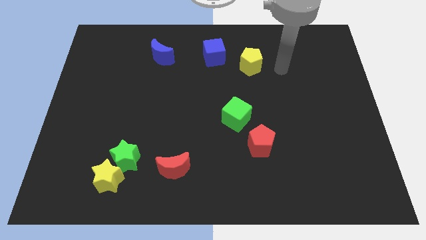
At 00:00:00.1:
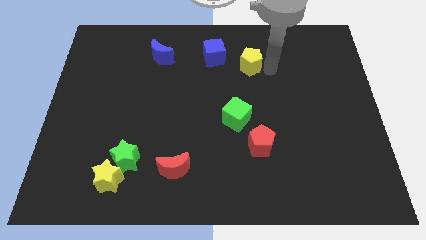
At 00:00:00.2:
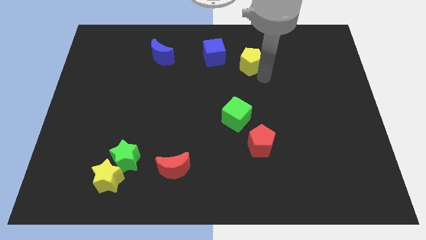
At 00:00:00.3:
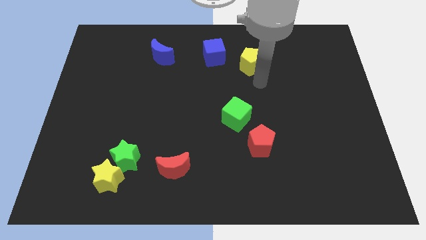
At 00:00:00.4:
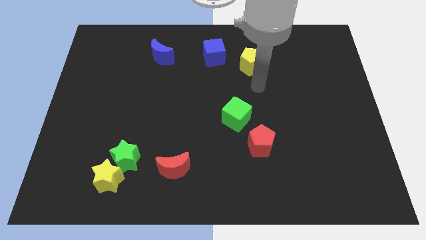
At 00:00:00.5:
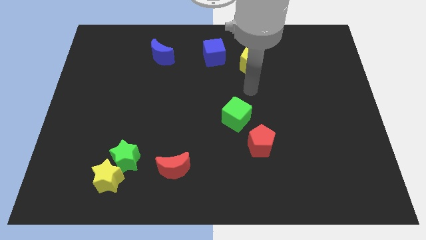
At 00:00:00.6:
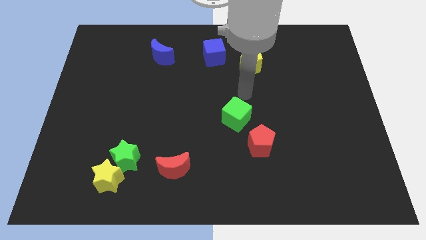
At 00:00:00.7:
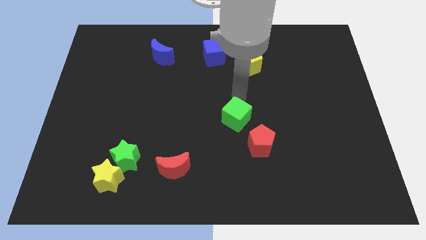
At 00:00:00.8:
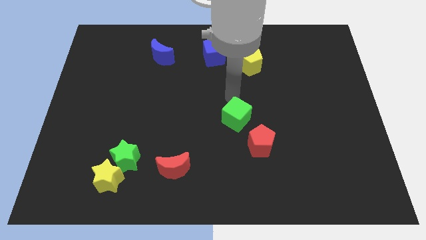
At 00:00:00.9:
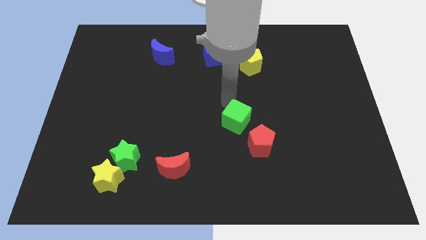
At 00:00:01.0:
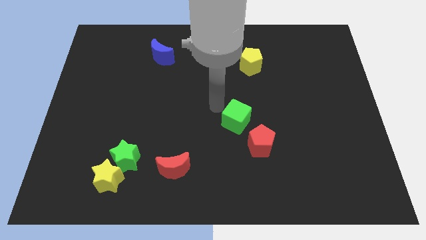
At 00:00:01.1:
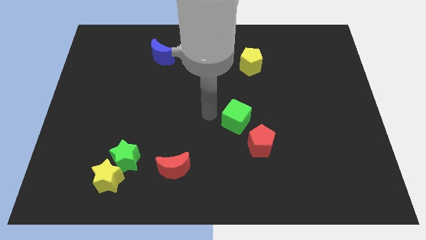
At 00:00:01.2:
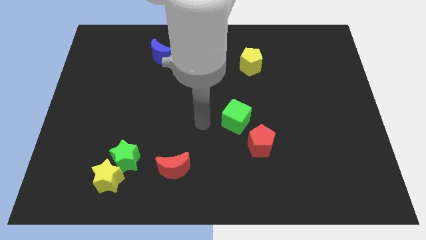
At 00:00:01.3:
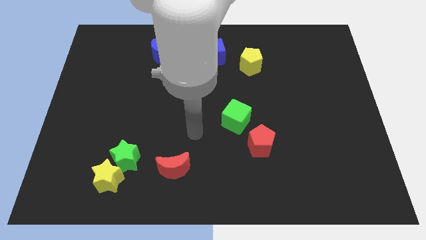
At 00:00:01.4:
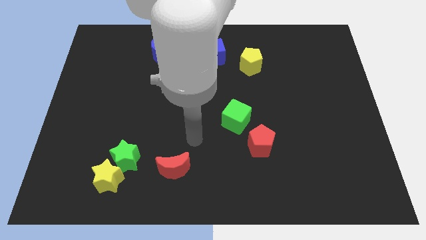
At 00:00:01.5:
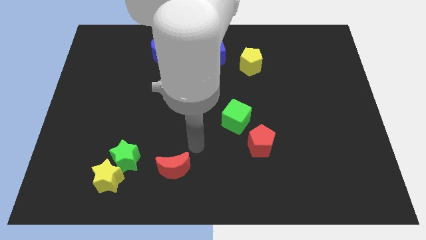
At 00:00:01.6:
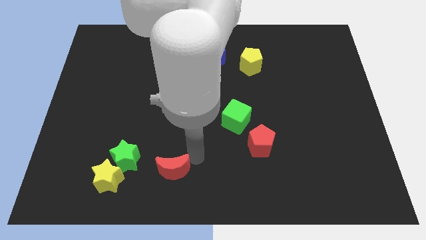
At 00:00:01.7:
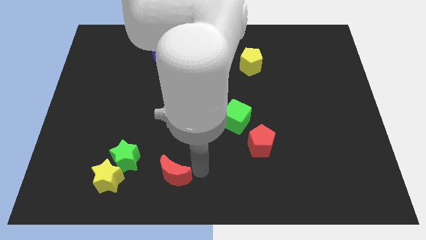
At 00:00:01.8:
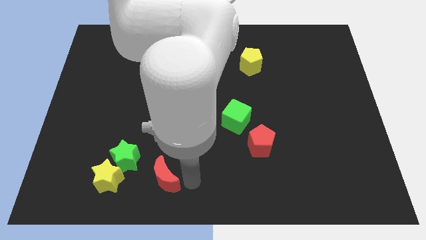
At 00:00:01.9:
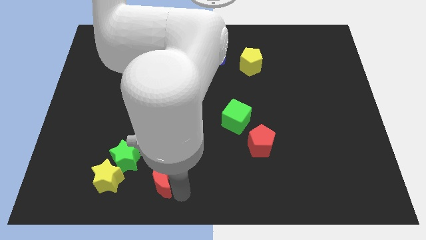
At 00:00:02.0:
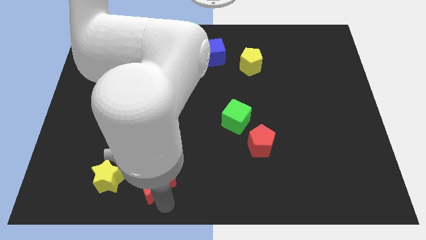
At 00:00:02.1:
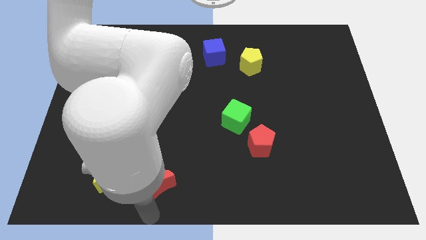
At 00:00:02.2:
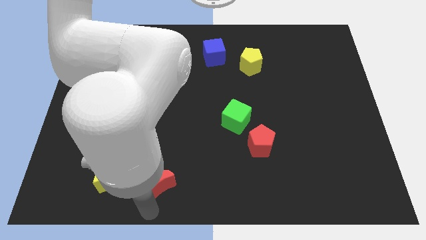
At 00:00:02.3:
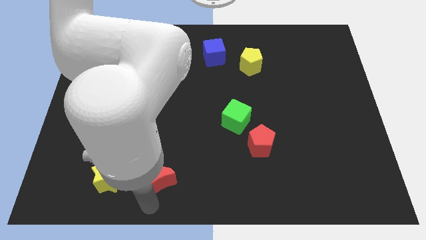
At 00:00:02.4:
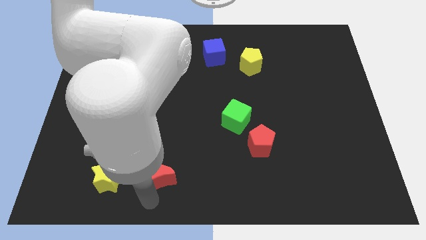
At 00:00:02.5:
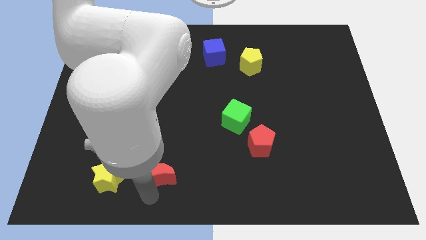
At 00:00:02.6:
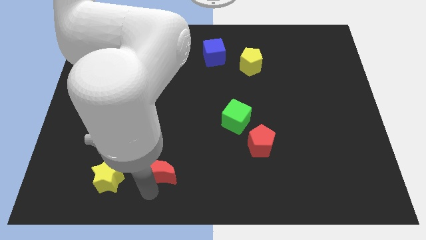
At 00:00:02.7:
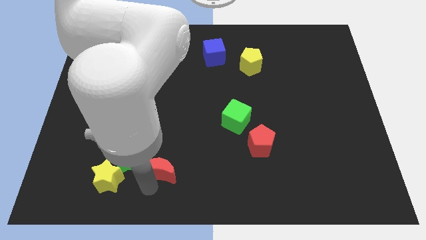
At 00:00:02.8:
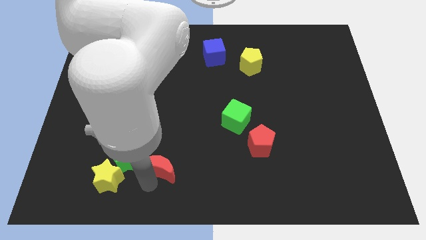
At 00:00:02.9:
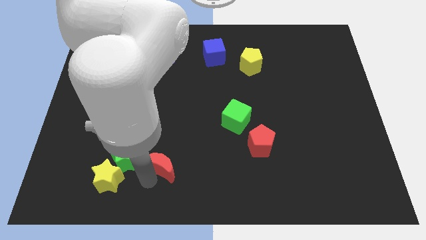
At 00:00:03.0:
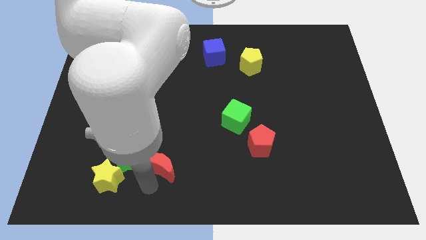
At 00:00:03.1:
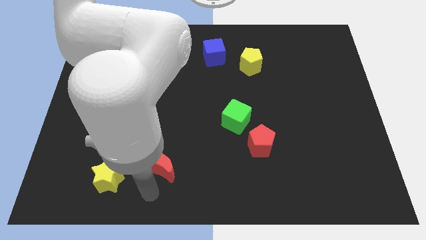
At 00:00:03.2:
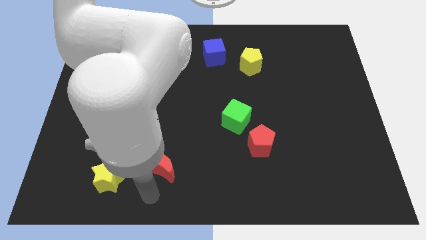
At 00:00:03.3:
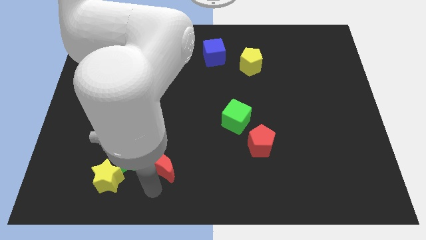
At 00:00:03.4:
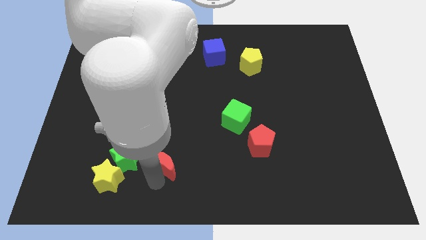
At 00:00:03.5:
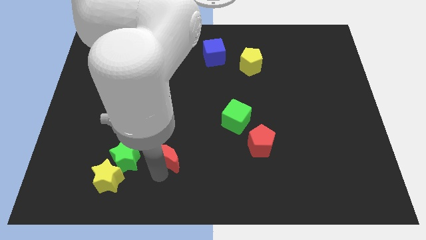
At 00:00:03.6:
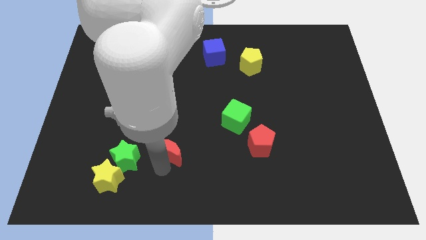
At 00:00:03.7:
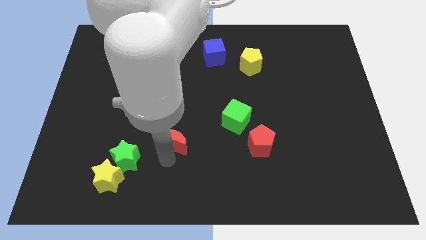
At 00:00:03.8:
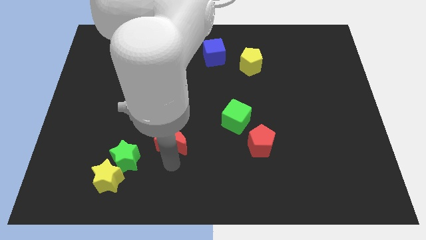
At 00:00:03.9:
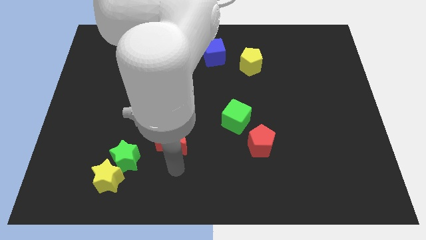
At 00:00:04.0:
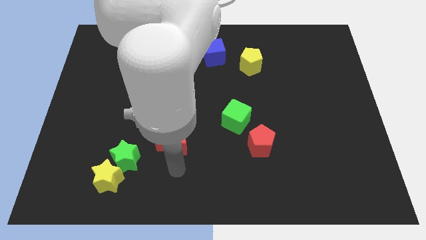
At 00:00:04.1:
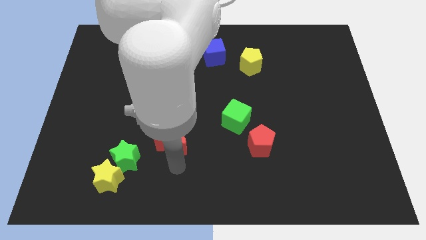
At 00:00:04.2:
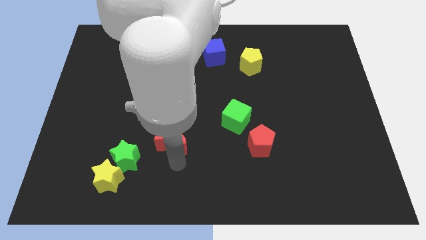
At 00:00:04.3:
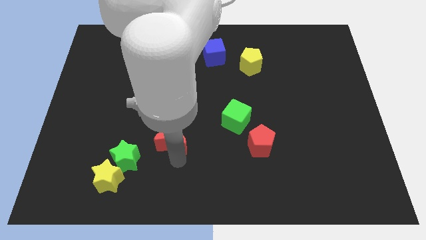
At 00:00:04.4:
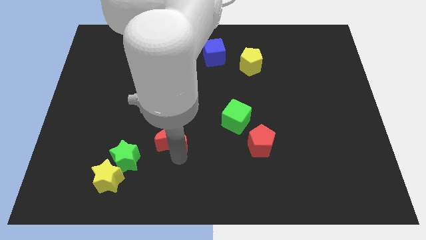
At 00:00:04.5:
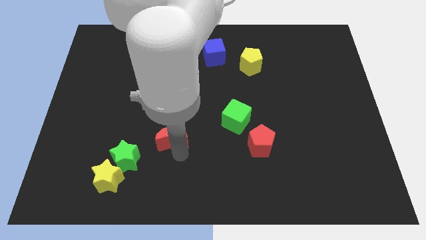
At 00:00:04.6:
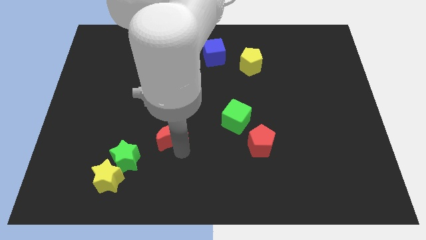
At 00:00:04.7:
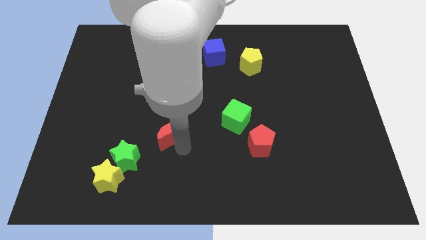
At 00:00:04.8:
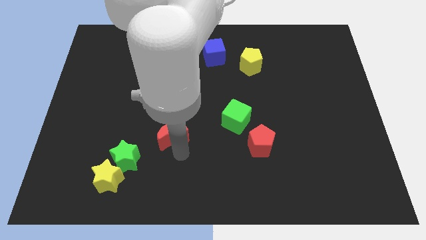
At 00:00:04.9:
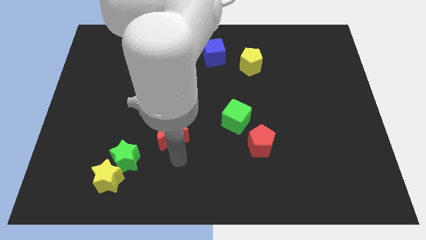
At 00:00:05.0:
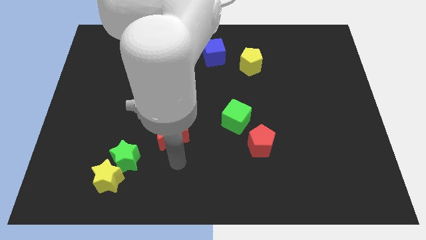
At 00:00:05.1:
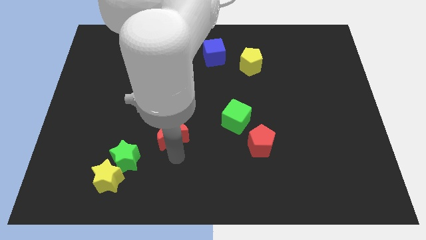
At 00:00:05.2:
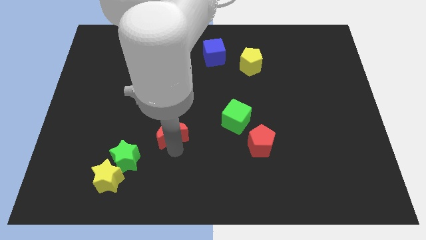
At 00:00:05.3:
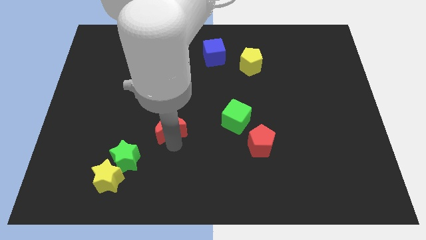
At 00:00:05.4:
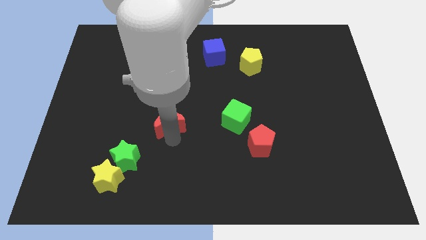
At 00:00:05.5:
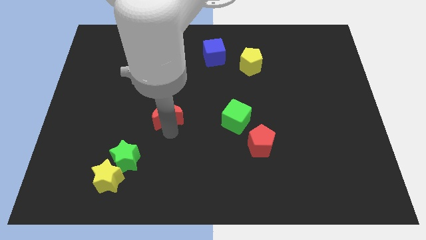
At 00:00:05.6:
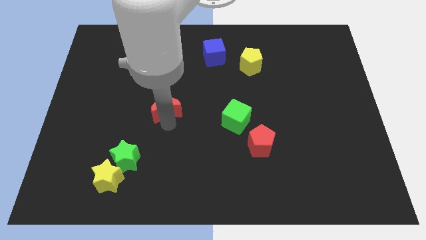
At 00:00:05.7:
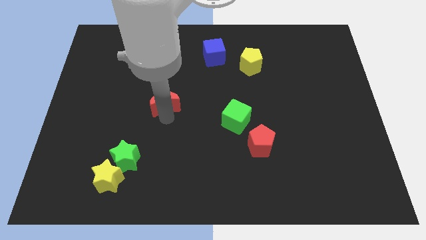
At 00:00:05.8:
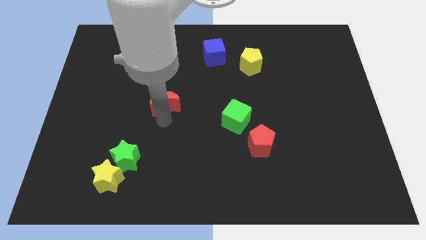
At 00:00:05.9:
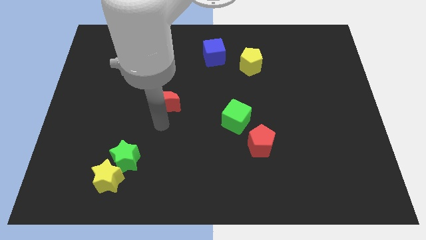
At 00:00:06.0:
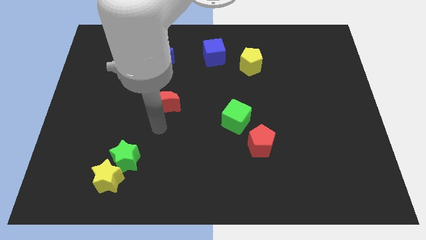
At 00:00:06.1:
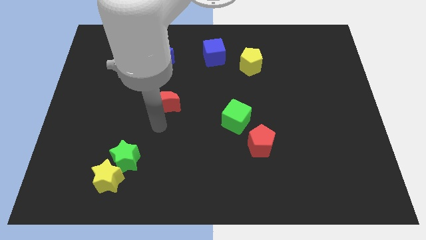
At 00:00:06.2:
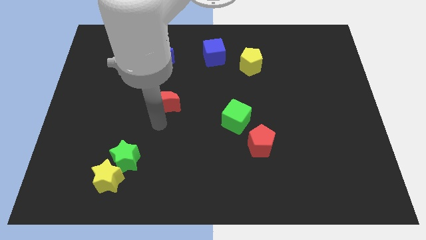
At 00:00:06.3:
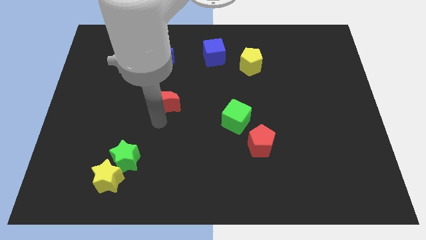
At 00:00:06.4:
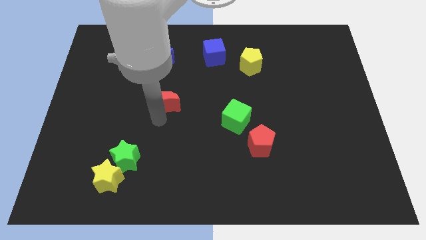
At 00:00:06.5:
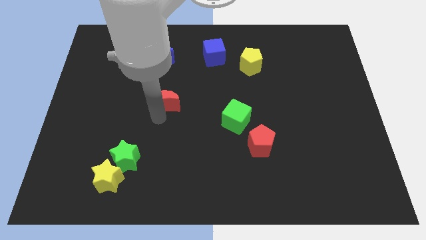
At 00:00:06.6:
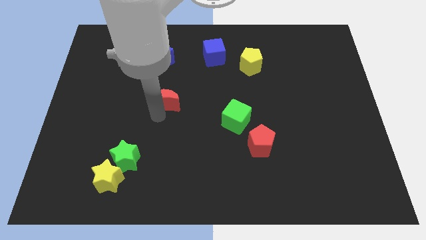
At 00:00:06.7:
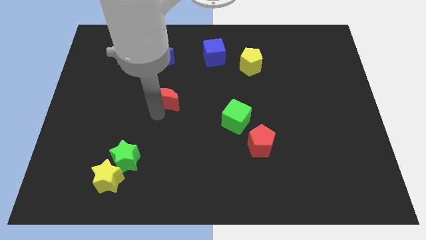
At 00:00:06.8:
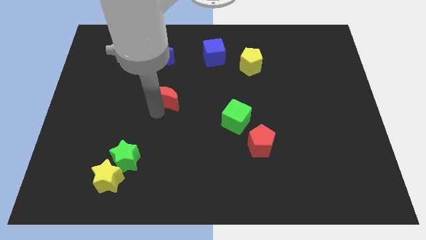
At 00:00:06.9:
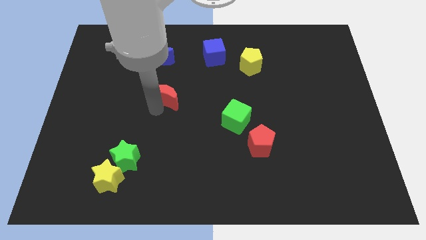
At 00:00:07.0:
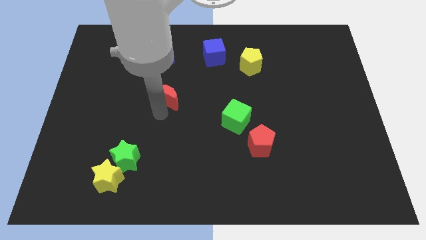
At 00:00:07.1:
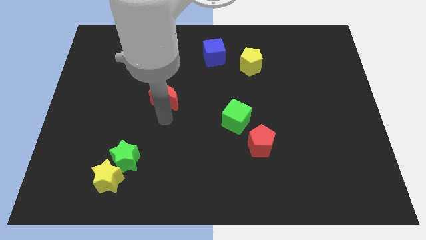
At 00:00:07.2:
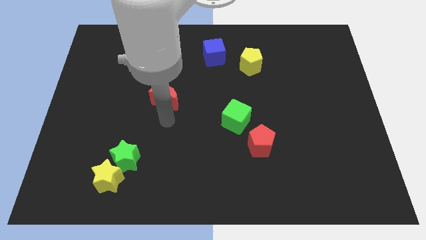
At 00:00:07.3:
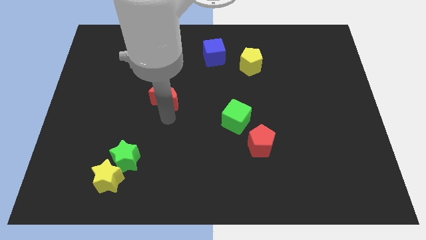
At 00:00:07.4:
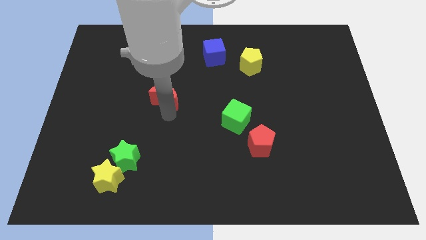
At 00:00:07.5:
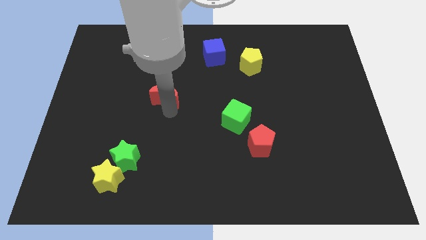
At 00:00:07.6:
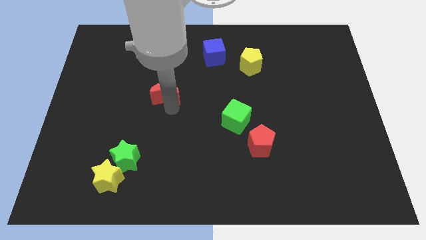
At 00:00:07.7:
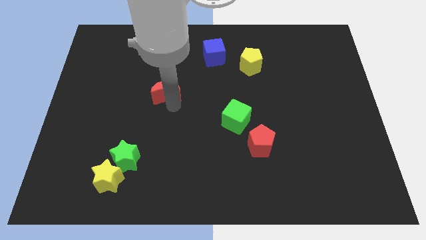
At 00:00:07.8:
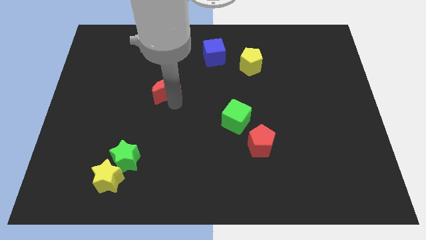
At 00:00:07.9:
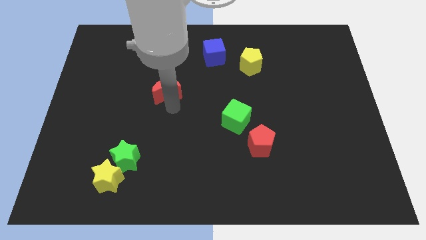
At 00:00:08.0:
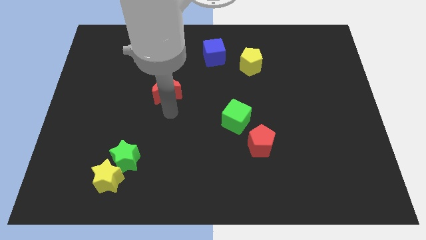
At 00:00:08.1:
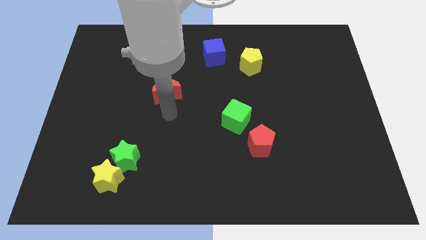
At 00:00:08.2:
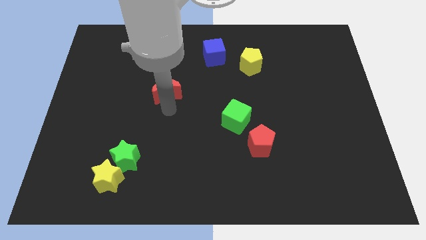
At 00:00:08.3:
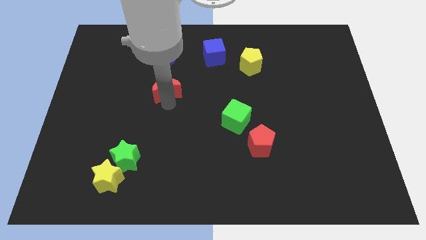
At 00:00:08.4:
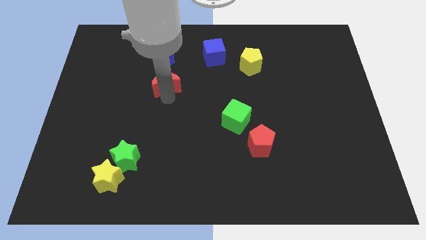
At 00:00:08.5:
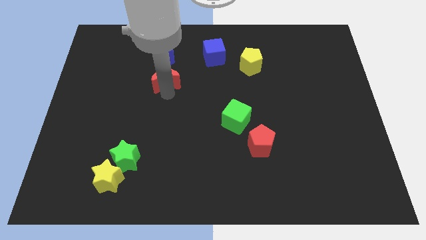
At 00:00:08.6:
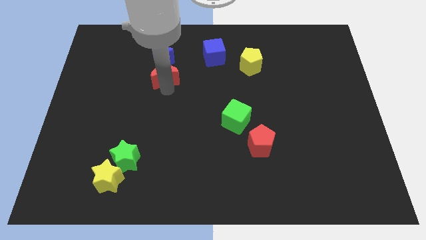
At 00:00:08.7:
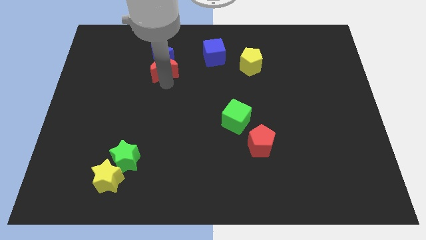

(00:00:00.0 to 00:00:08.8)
put the red moon to the blue moon
